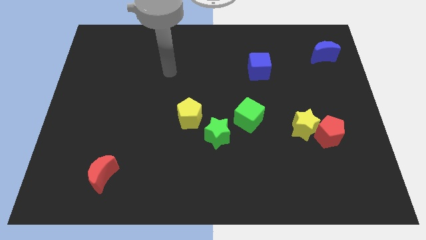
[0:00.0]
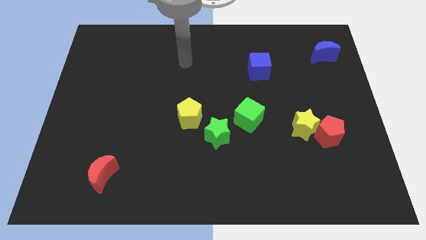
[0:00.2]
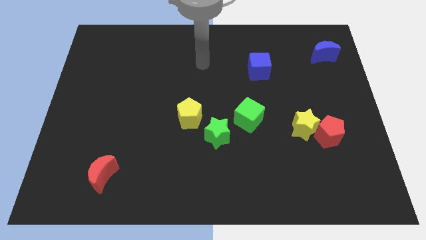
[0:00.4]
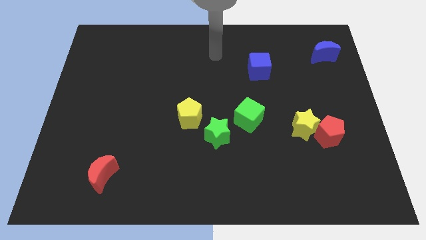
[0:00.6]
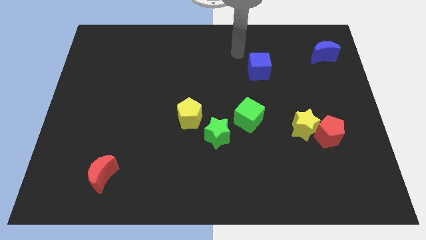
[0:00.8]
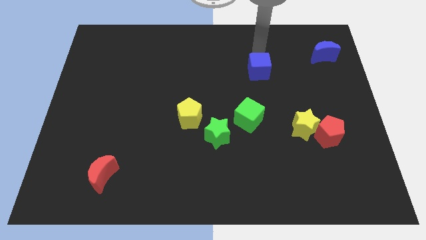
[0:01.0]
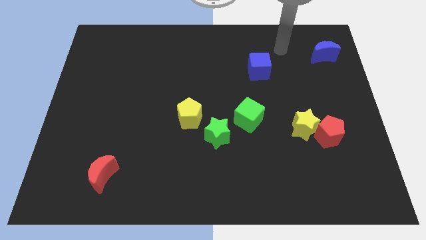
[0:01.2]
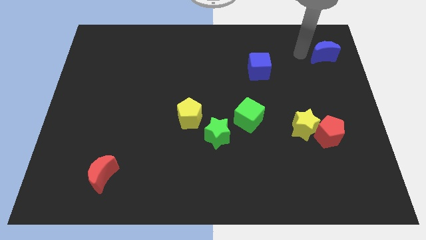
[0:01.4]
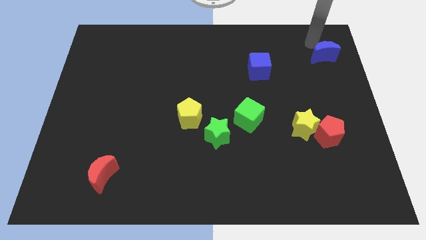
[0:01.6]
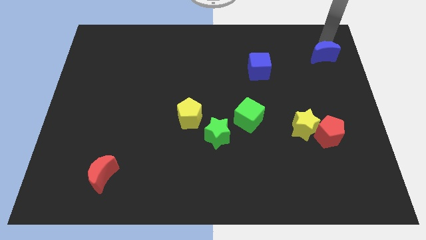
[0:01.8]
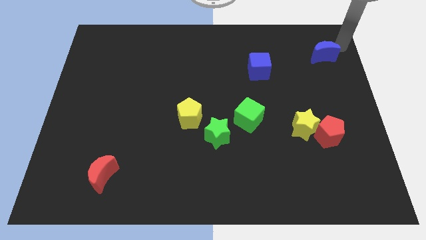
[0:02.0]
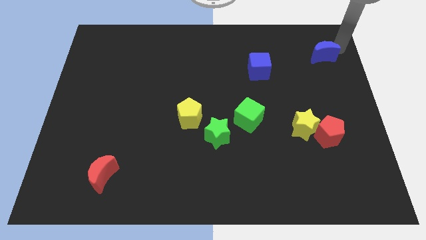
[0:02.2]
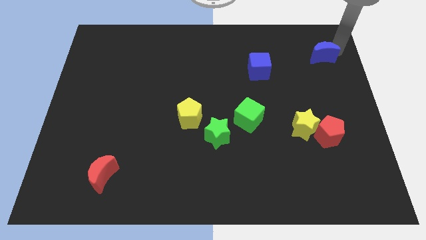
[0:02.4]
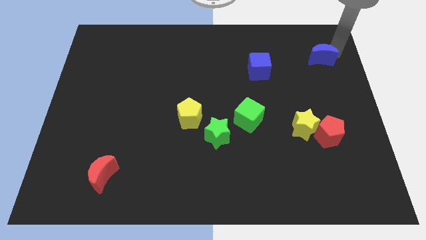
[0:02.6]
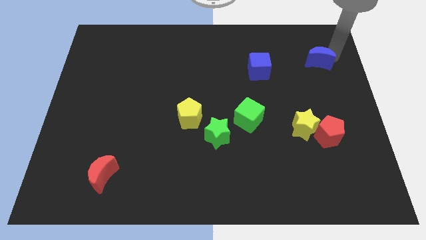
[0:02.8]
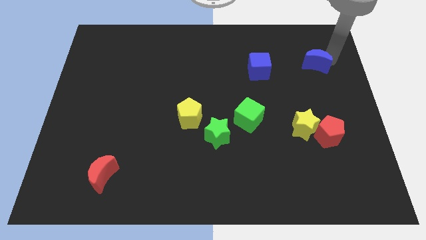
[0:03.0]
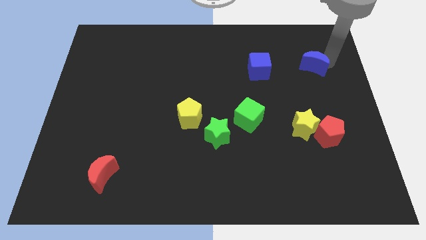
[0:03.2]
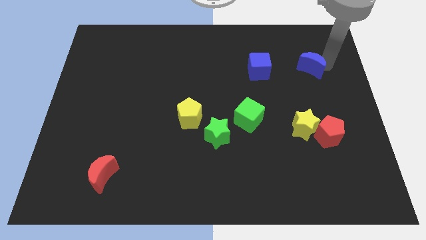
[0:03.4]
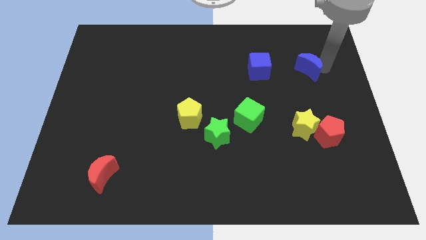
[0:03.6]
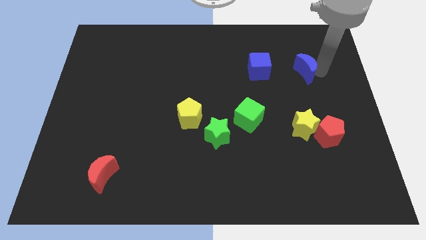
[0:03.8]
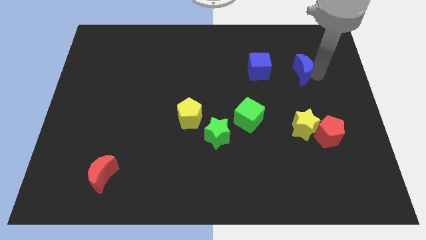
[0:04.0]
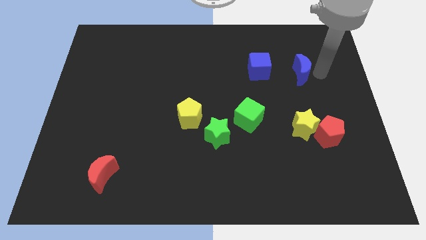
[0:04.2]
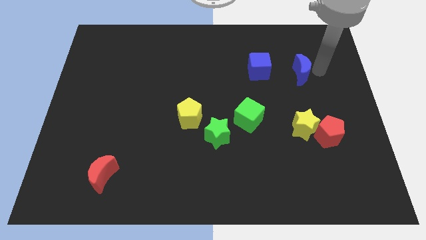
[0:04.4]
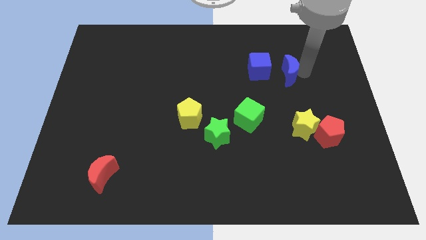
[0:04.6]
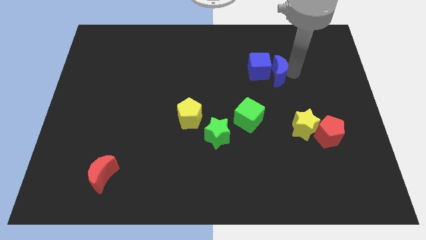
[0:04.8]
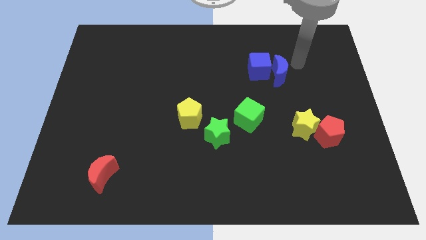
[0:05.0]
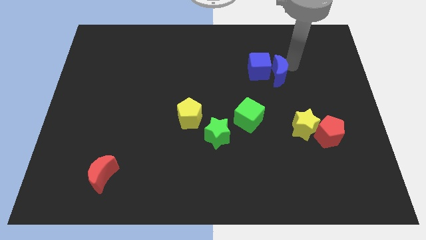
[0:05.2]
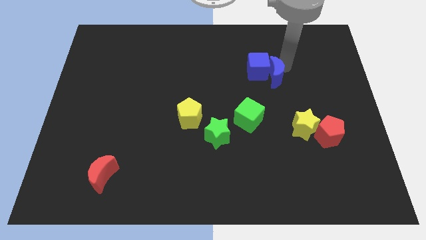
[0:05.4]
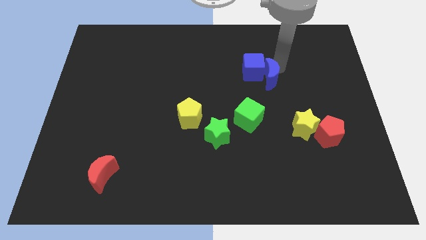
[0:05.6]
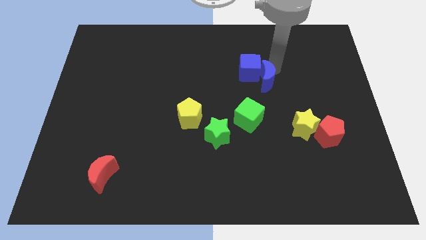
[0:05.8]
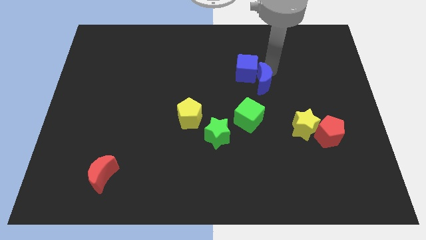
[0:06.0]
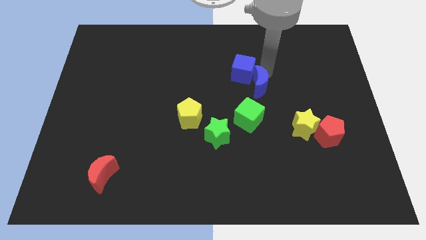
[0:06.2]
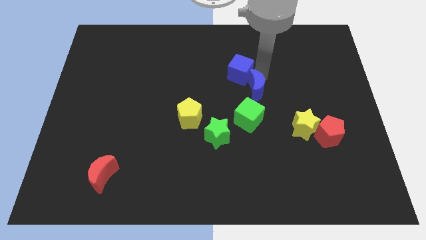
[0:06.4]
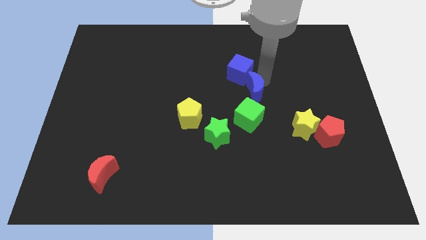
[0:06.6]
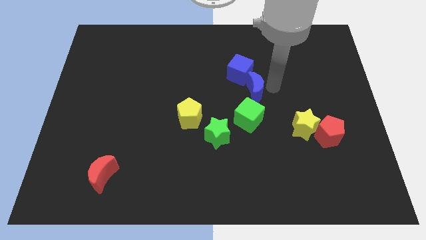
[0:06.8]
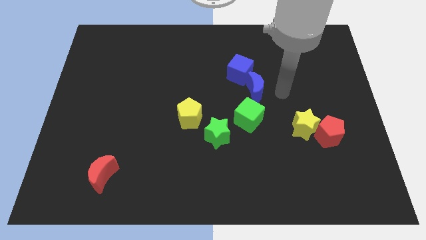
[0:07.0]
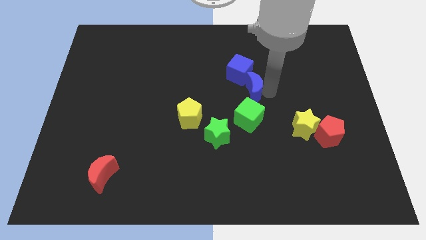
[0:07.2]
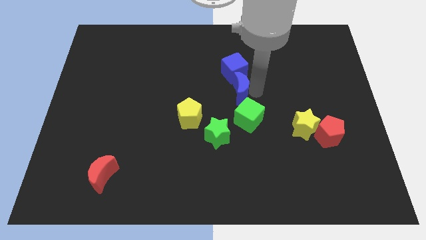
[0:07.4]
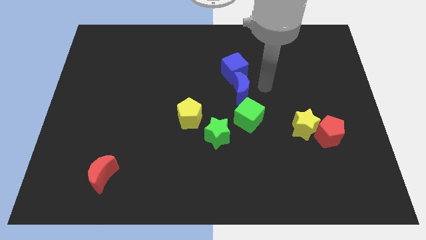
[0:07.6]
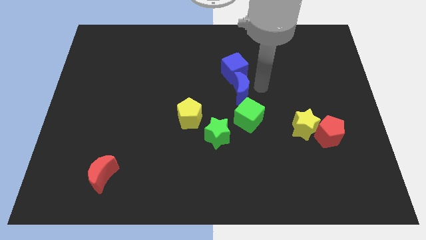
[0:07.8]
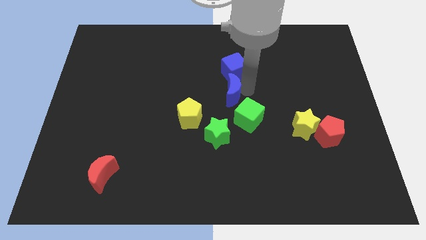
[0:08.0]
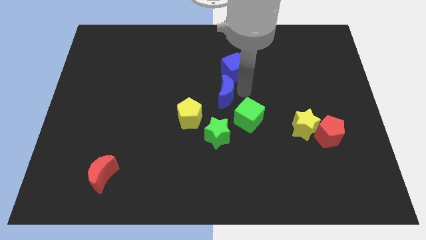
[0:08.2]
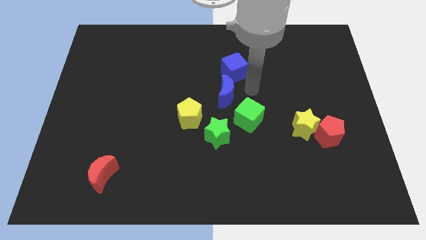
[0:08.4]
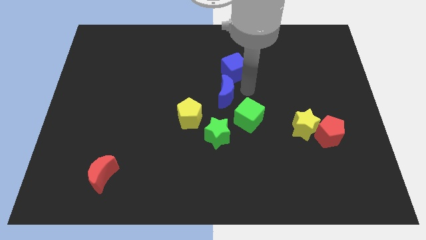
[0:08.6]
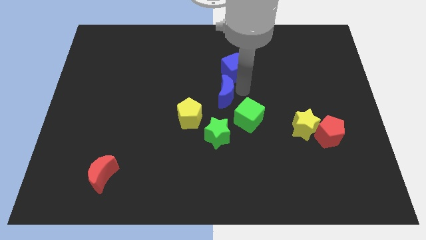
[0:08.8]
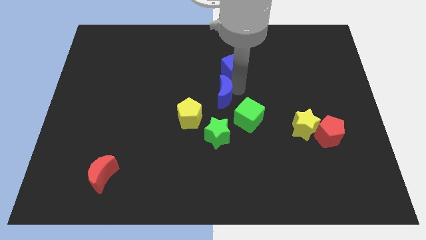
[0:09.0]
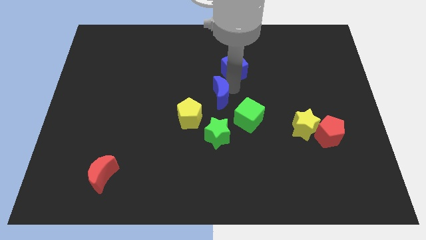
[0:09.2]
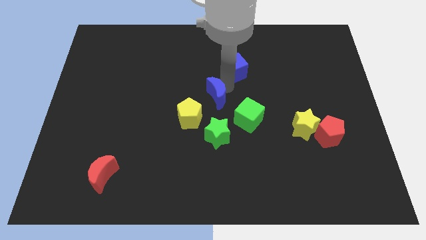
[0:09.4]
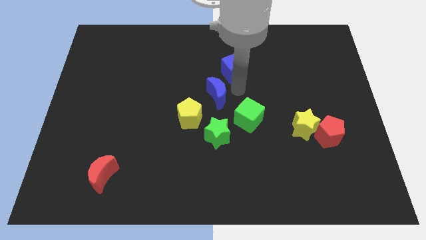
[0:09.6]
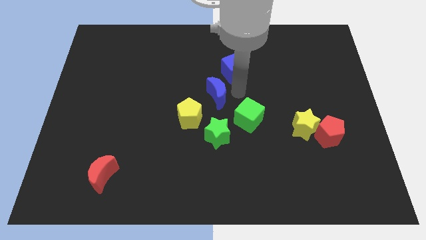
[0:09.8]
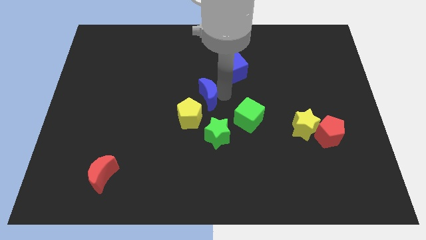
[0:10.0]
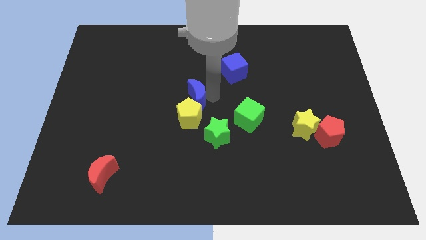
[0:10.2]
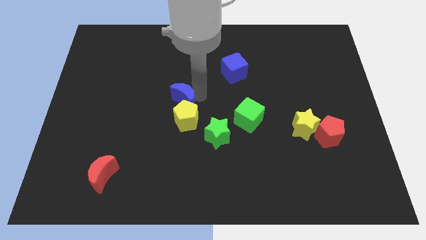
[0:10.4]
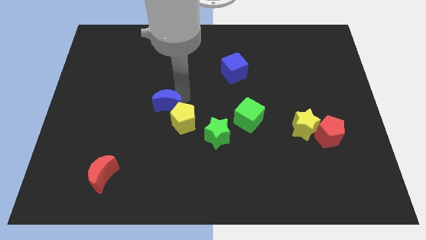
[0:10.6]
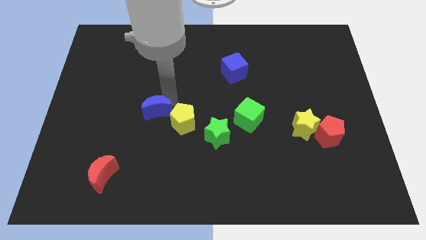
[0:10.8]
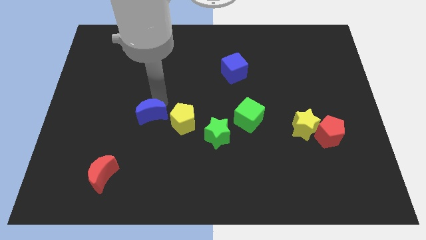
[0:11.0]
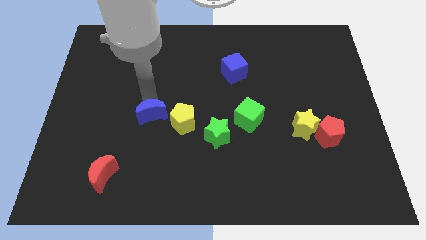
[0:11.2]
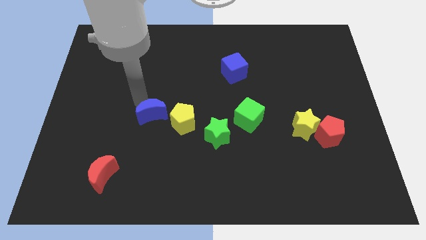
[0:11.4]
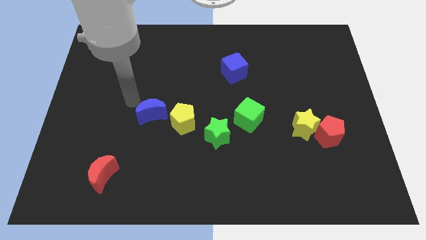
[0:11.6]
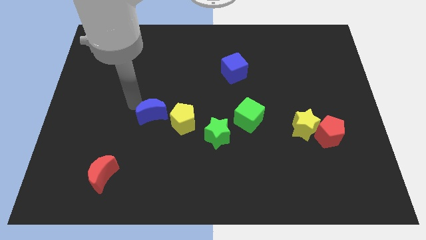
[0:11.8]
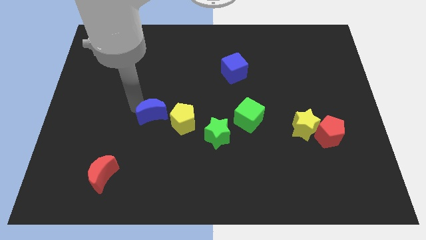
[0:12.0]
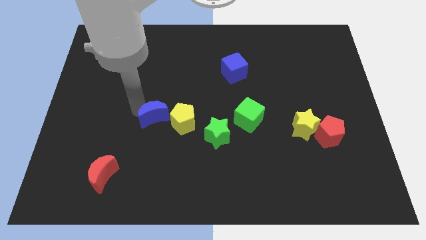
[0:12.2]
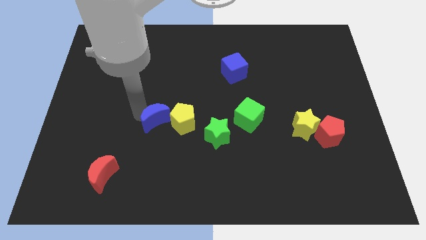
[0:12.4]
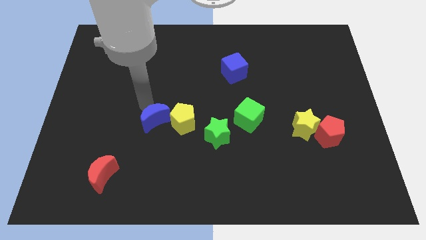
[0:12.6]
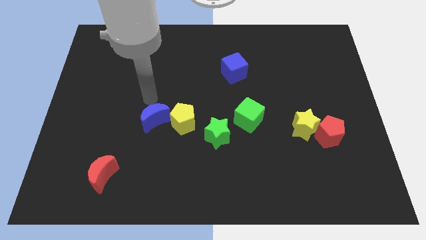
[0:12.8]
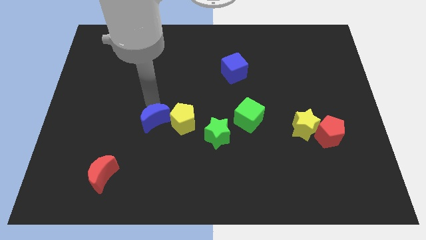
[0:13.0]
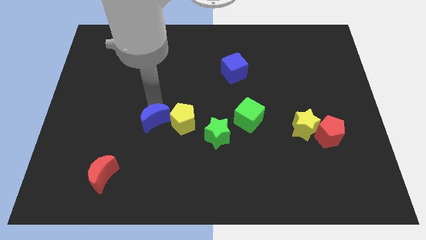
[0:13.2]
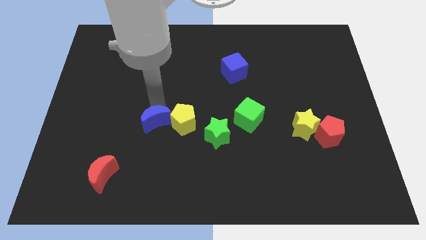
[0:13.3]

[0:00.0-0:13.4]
slide the blue moon to the bottom left of the yellow pentagon

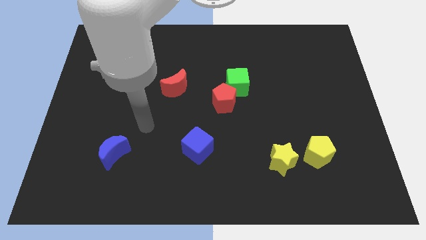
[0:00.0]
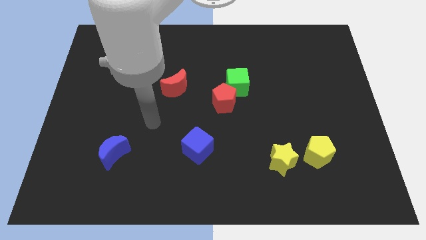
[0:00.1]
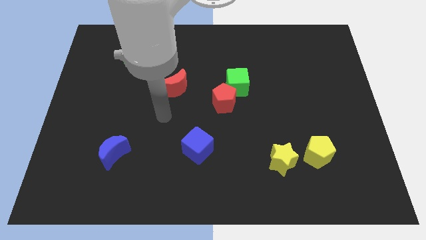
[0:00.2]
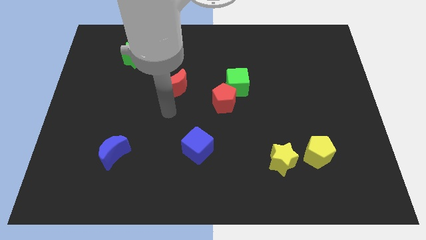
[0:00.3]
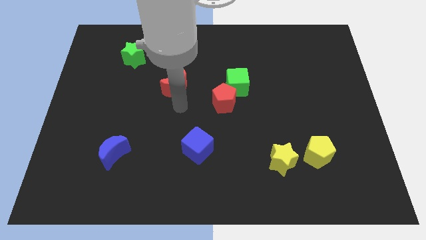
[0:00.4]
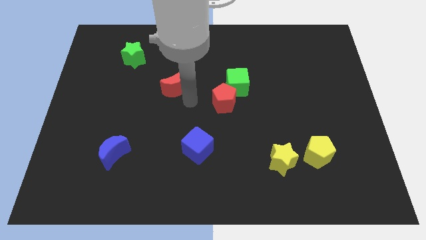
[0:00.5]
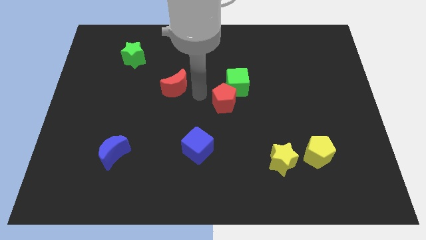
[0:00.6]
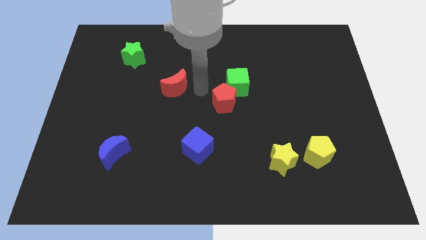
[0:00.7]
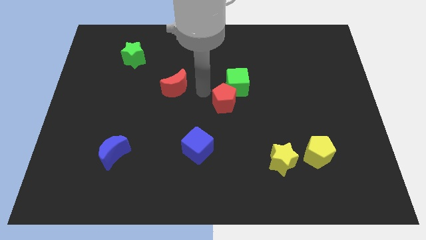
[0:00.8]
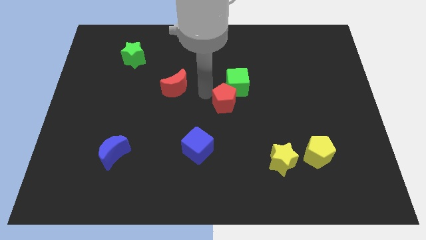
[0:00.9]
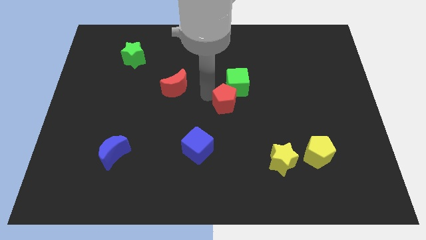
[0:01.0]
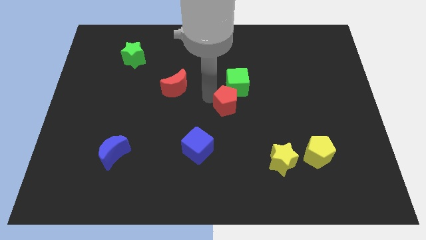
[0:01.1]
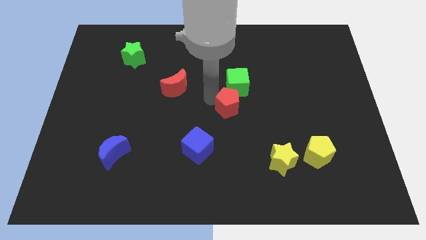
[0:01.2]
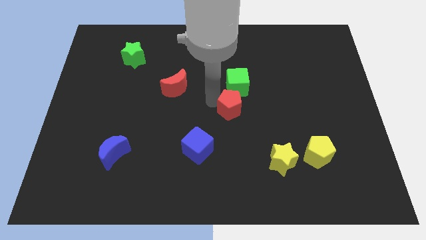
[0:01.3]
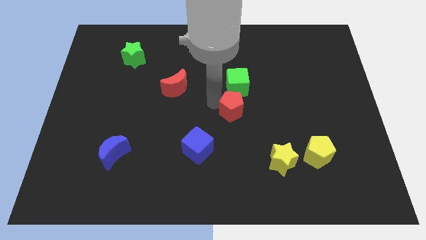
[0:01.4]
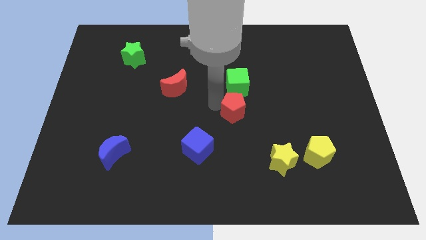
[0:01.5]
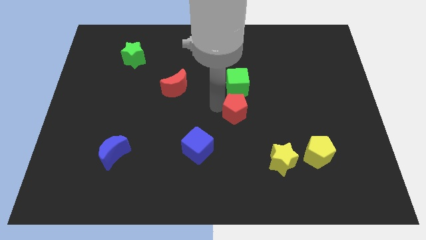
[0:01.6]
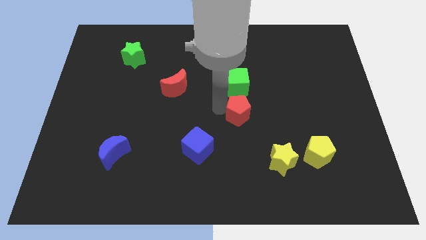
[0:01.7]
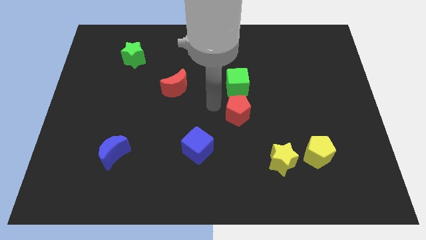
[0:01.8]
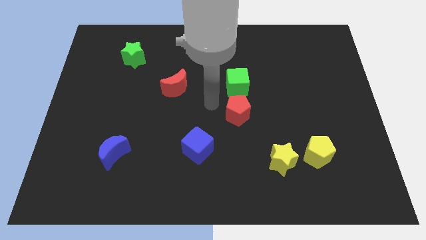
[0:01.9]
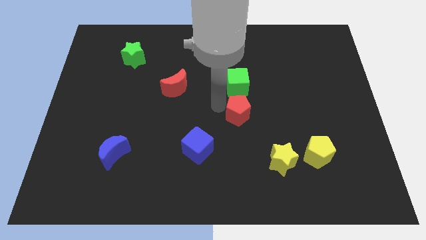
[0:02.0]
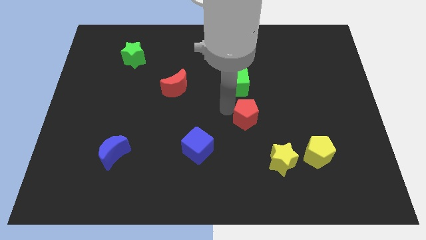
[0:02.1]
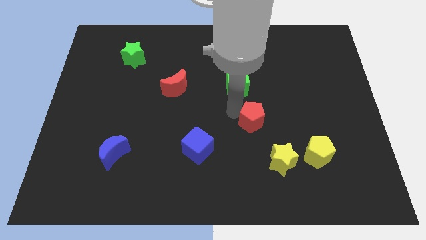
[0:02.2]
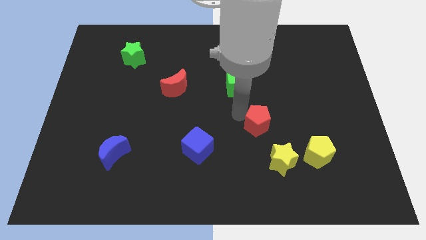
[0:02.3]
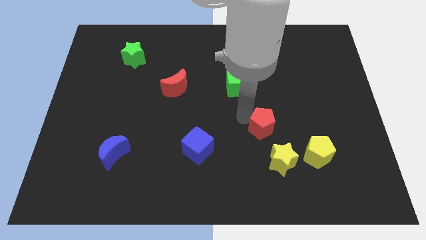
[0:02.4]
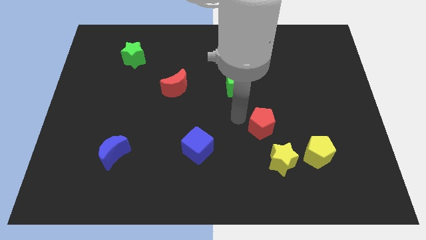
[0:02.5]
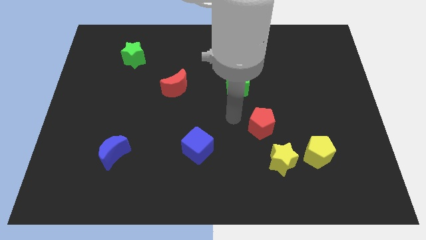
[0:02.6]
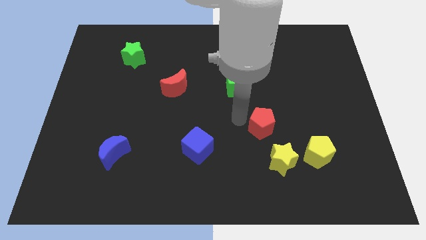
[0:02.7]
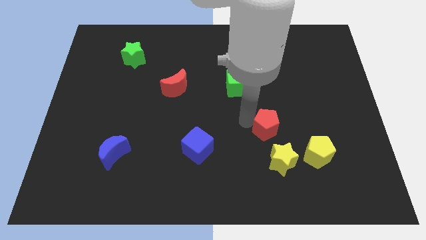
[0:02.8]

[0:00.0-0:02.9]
move the red pentagon diagonally up and to the left of the yellow pentagon
